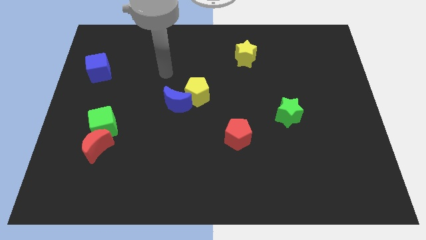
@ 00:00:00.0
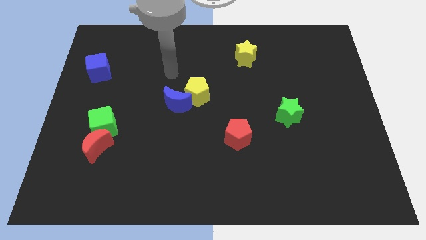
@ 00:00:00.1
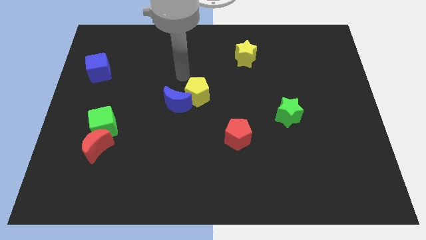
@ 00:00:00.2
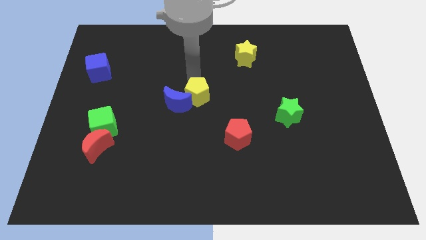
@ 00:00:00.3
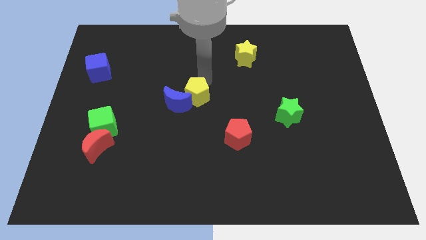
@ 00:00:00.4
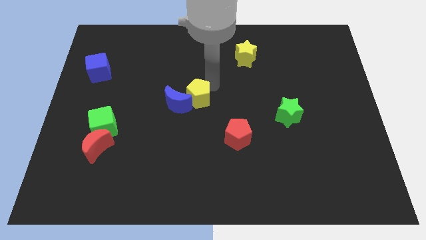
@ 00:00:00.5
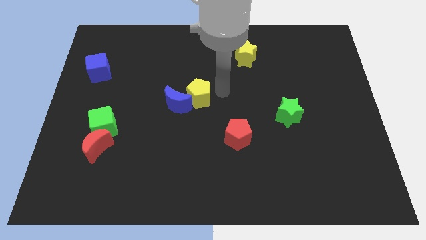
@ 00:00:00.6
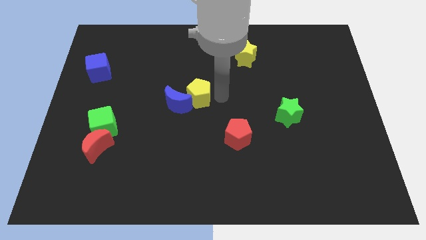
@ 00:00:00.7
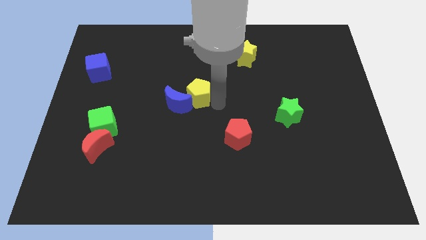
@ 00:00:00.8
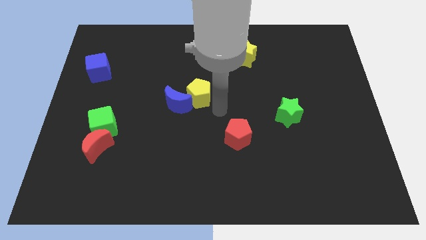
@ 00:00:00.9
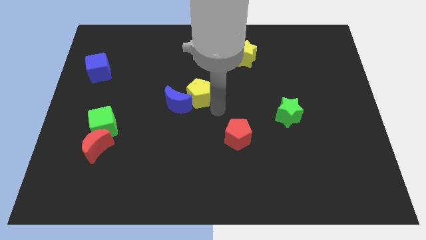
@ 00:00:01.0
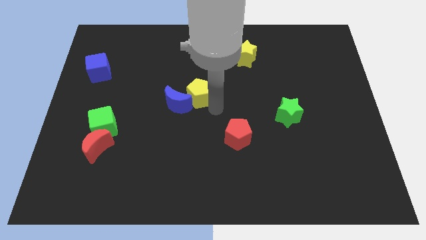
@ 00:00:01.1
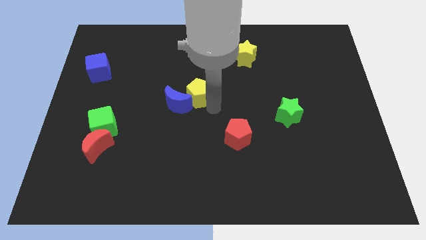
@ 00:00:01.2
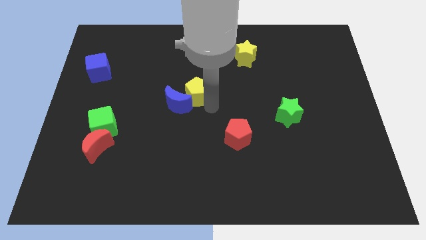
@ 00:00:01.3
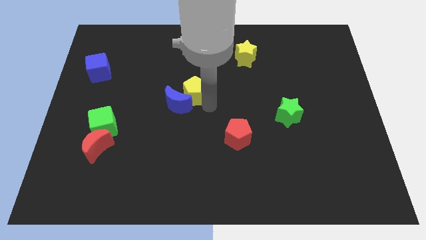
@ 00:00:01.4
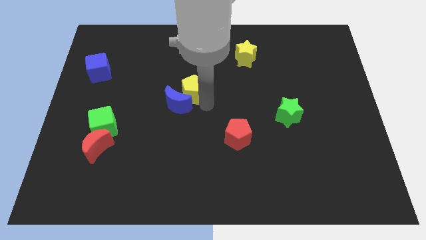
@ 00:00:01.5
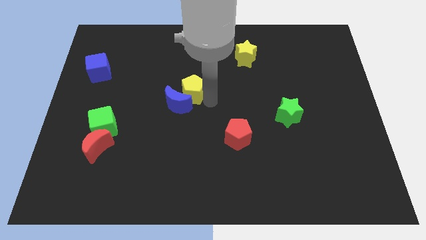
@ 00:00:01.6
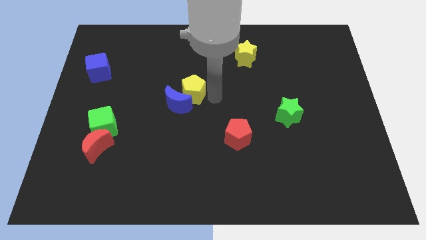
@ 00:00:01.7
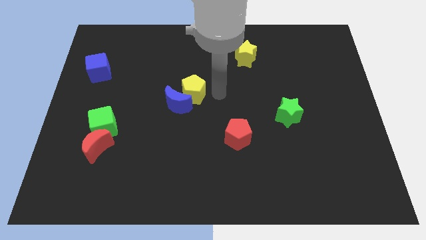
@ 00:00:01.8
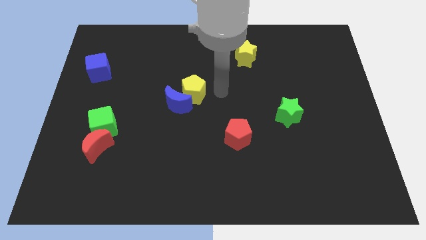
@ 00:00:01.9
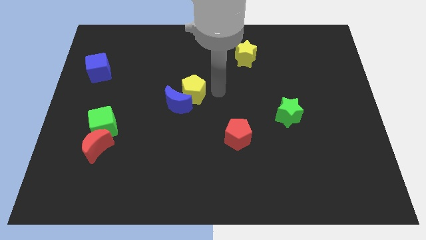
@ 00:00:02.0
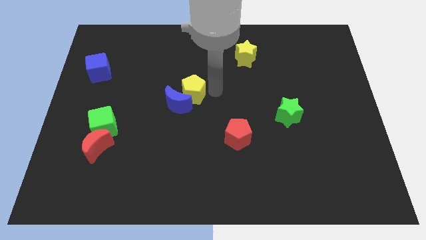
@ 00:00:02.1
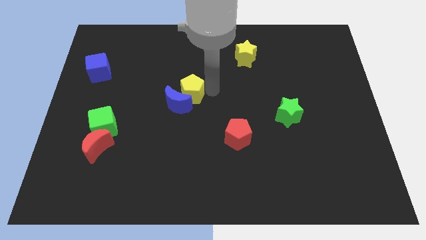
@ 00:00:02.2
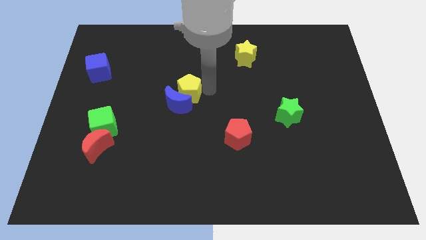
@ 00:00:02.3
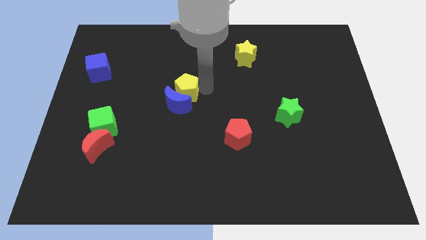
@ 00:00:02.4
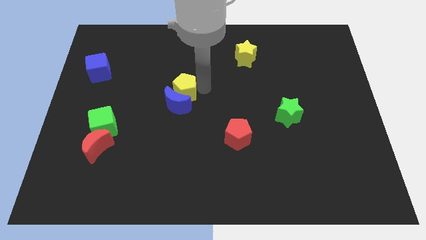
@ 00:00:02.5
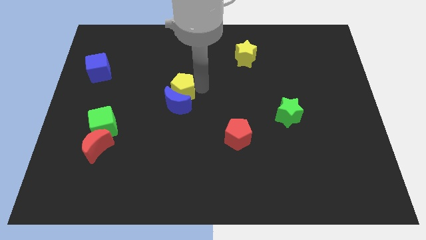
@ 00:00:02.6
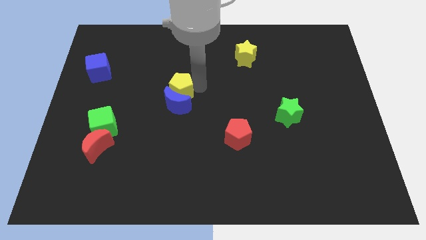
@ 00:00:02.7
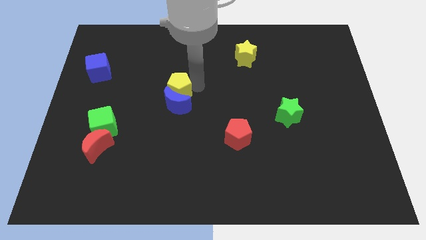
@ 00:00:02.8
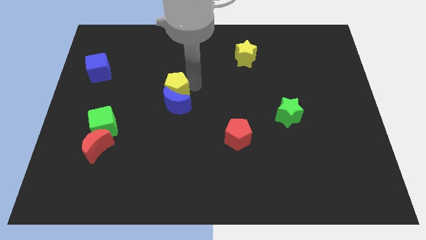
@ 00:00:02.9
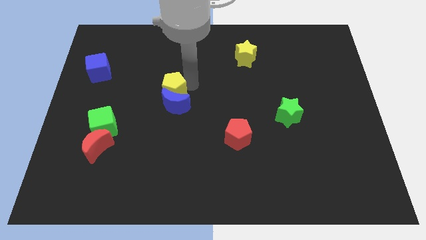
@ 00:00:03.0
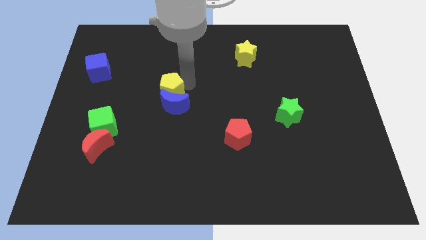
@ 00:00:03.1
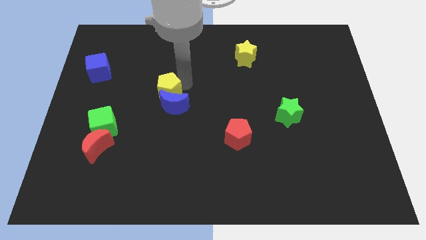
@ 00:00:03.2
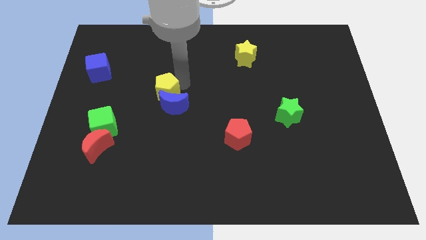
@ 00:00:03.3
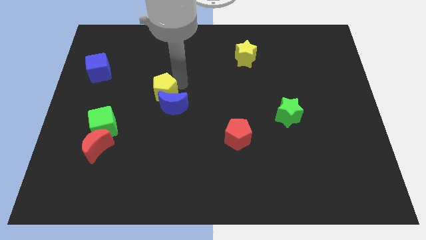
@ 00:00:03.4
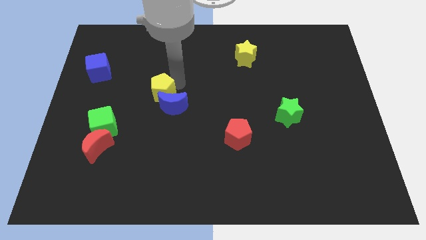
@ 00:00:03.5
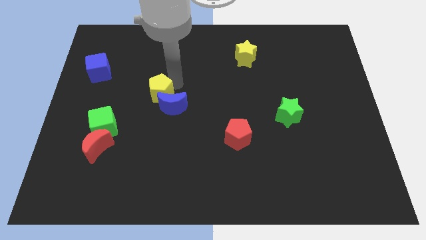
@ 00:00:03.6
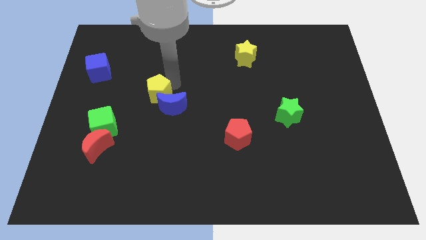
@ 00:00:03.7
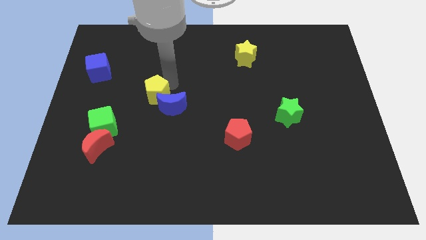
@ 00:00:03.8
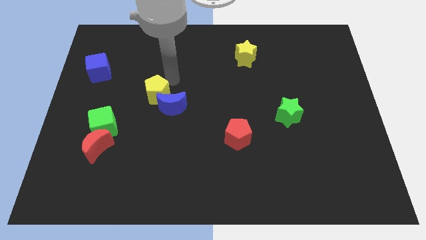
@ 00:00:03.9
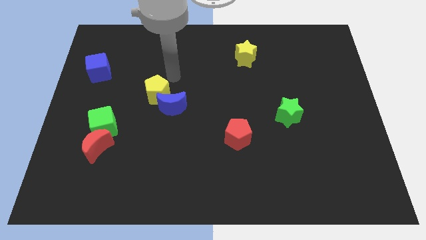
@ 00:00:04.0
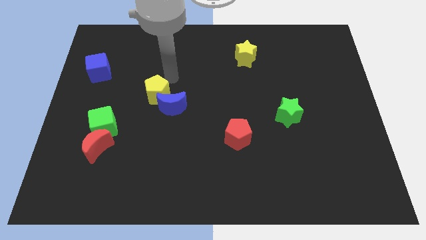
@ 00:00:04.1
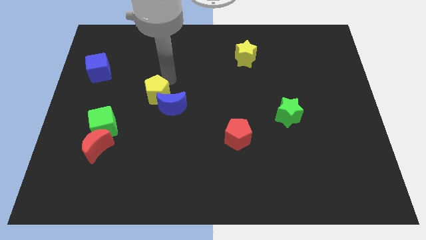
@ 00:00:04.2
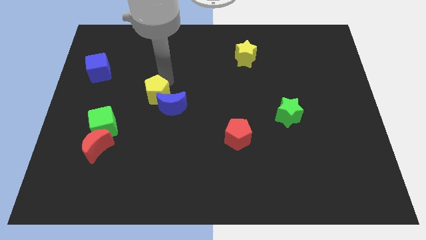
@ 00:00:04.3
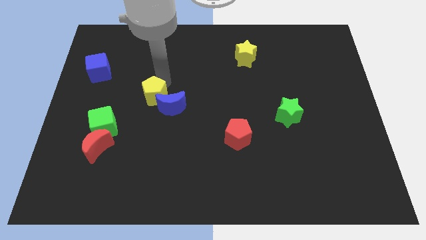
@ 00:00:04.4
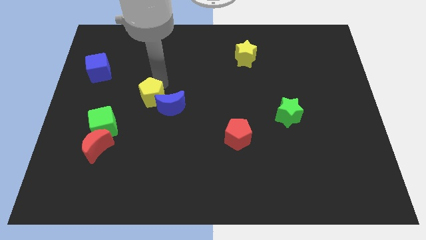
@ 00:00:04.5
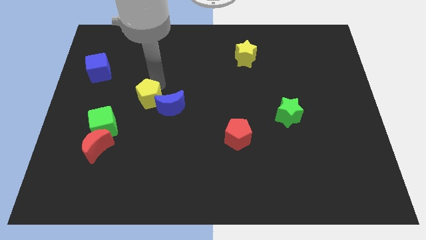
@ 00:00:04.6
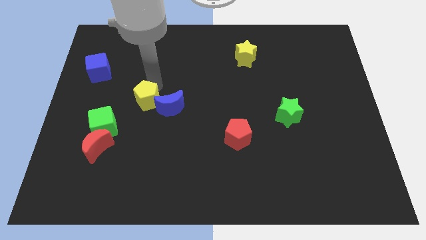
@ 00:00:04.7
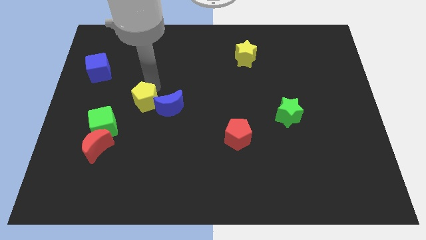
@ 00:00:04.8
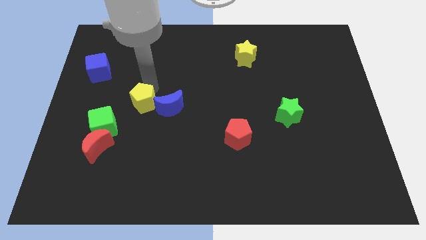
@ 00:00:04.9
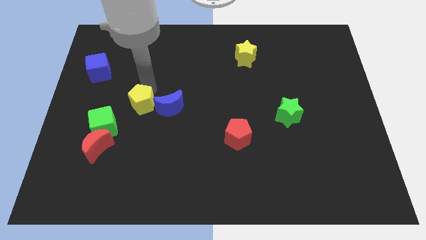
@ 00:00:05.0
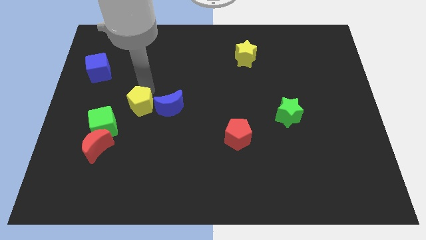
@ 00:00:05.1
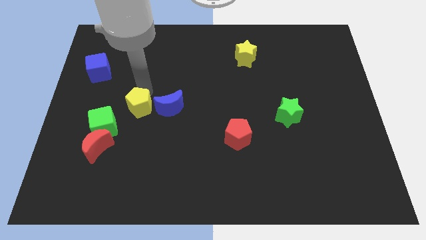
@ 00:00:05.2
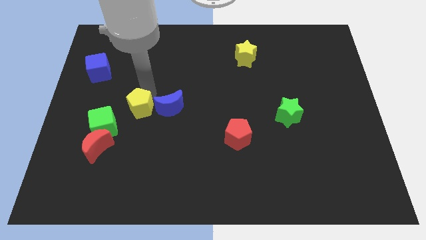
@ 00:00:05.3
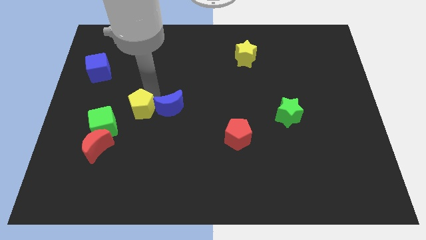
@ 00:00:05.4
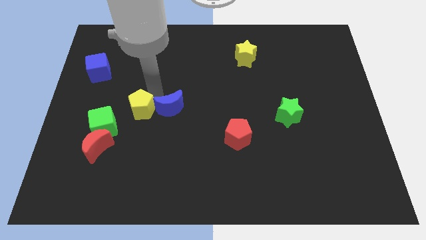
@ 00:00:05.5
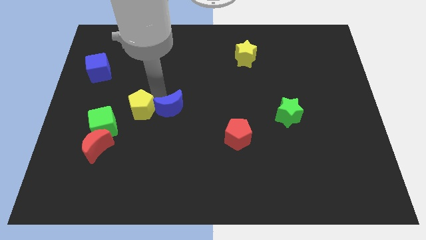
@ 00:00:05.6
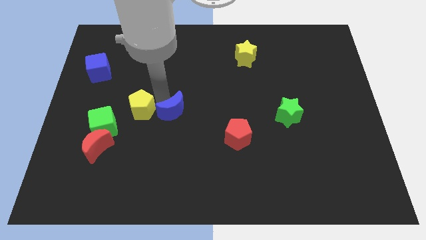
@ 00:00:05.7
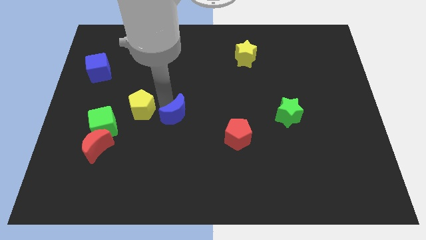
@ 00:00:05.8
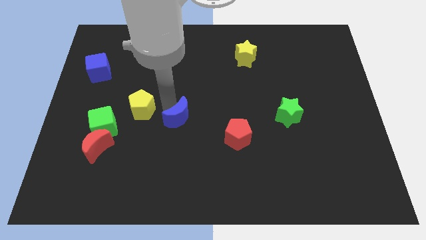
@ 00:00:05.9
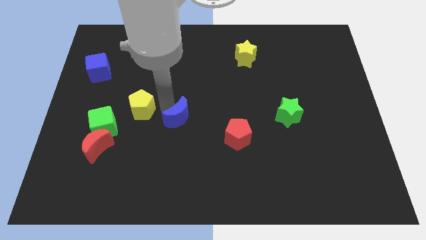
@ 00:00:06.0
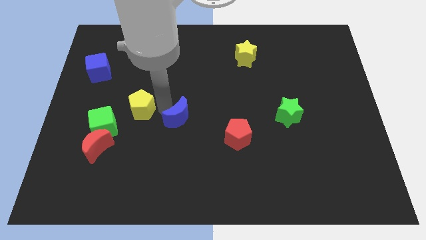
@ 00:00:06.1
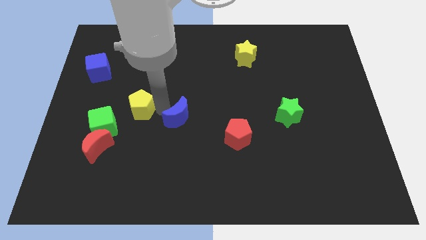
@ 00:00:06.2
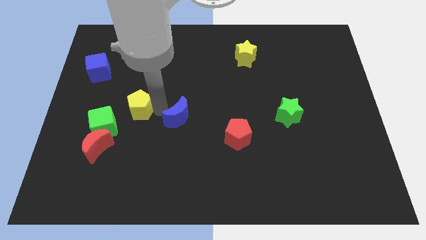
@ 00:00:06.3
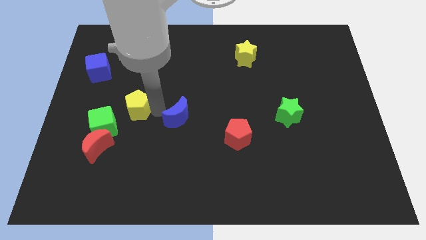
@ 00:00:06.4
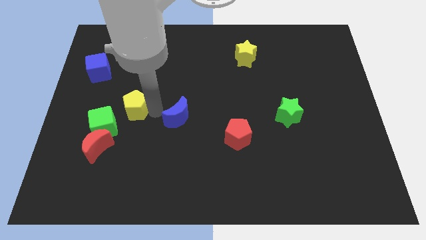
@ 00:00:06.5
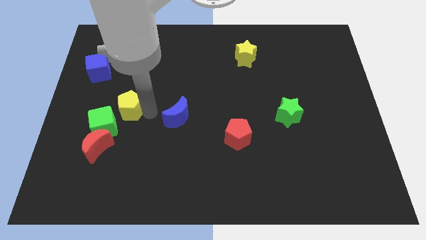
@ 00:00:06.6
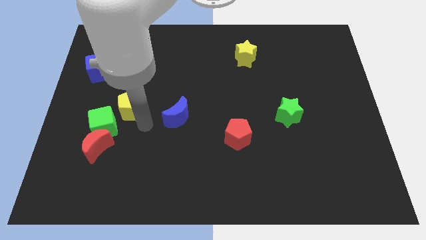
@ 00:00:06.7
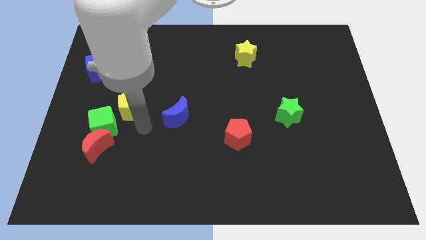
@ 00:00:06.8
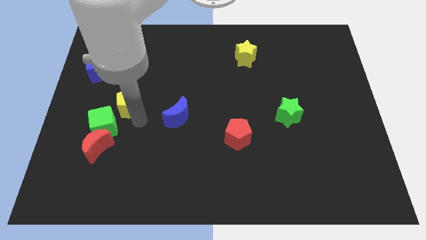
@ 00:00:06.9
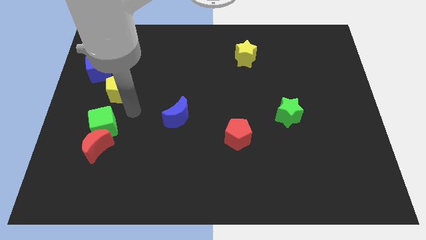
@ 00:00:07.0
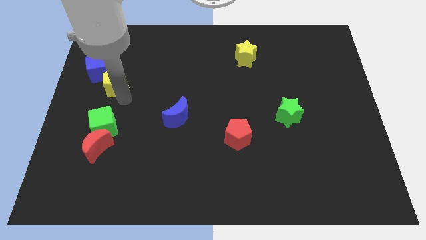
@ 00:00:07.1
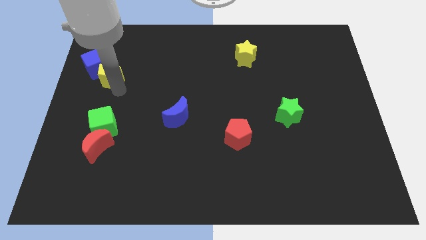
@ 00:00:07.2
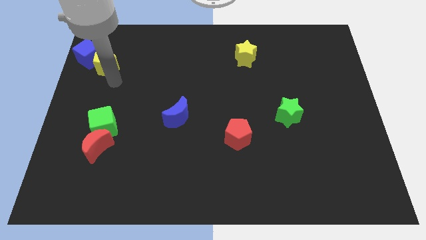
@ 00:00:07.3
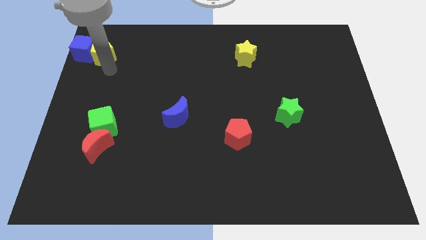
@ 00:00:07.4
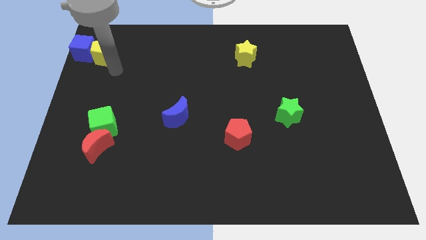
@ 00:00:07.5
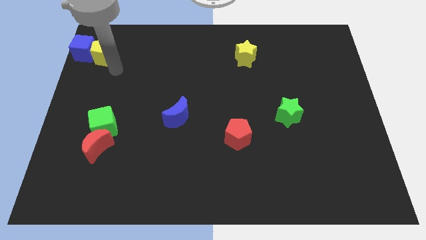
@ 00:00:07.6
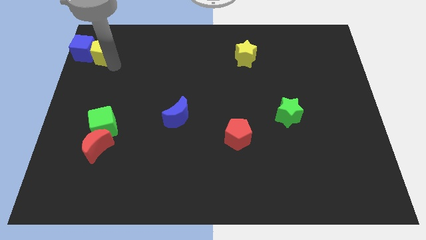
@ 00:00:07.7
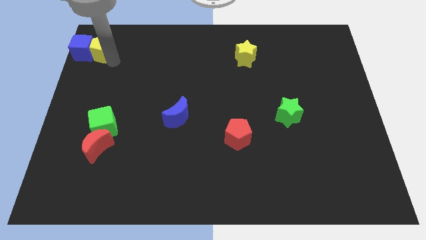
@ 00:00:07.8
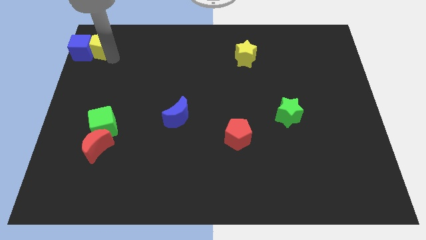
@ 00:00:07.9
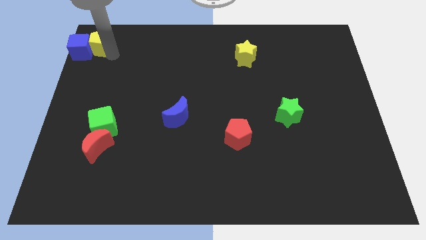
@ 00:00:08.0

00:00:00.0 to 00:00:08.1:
slide the yellow pentagon to the top left of the board

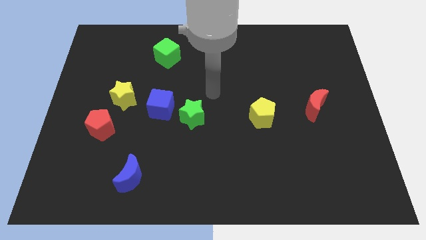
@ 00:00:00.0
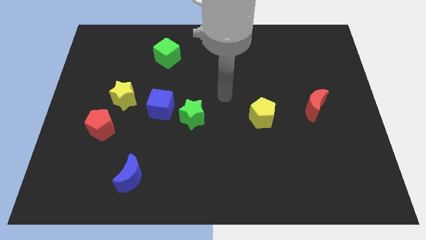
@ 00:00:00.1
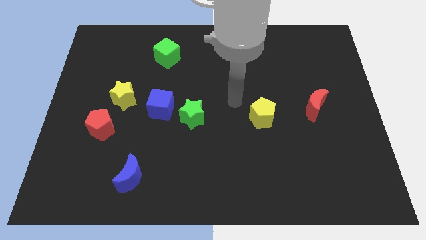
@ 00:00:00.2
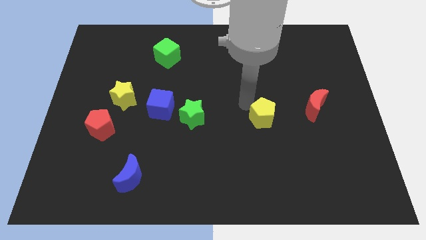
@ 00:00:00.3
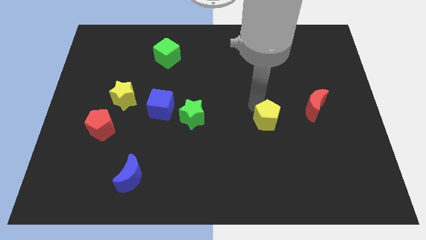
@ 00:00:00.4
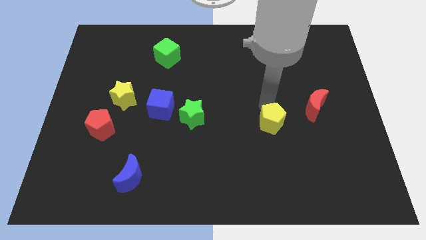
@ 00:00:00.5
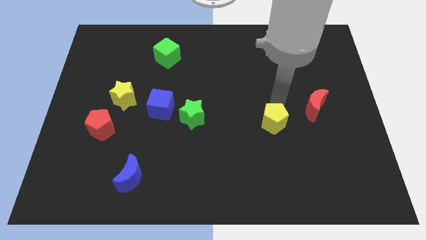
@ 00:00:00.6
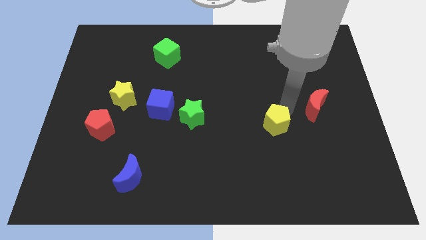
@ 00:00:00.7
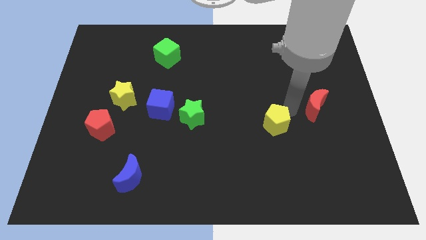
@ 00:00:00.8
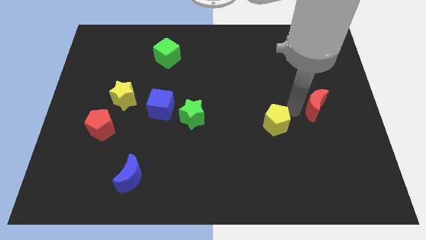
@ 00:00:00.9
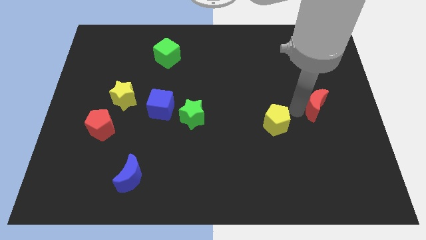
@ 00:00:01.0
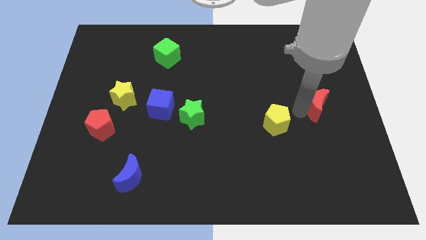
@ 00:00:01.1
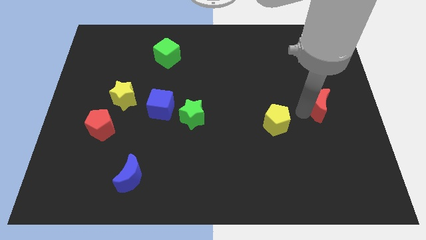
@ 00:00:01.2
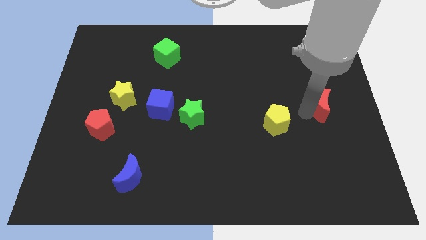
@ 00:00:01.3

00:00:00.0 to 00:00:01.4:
slide the red moon to the right side of the board
